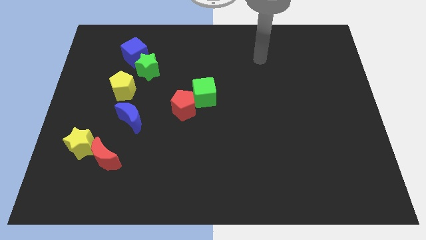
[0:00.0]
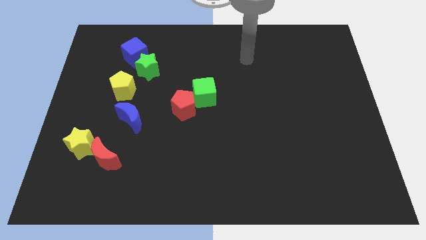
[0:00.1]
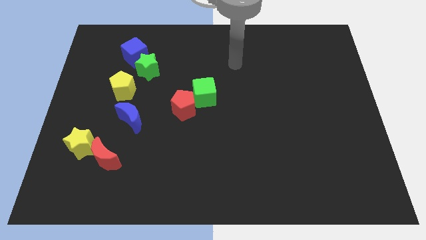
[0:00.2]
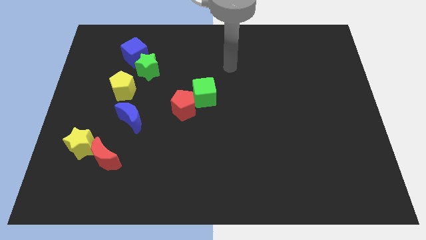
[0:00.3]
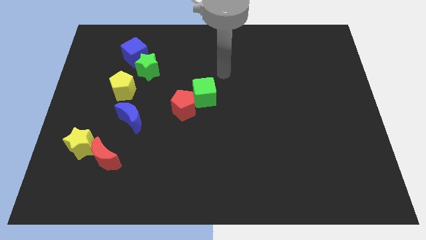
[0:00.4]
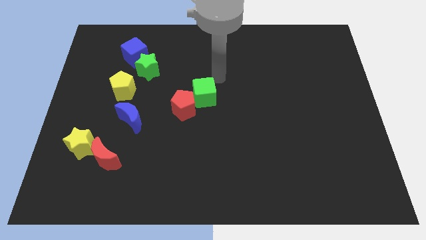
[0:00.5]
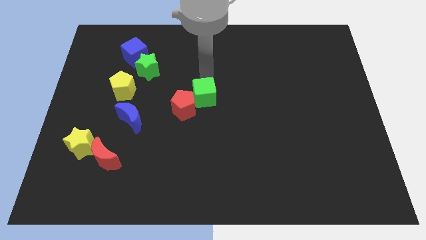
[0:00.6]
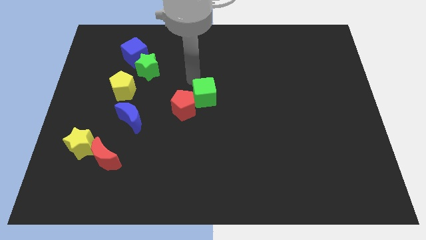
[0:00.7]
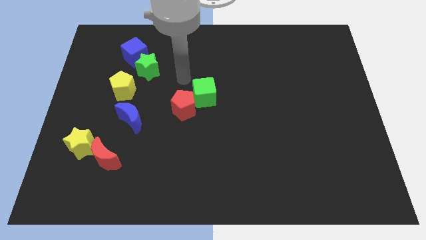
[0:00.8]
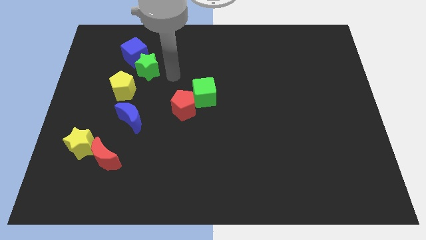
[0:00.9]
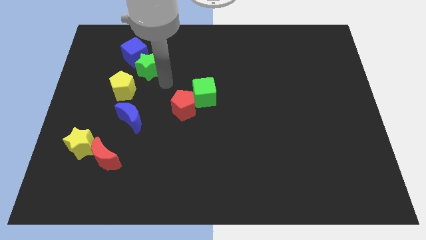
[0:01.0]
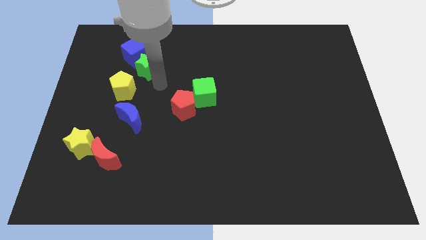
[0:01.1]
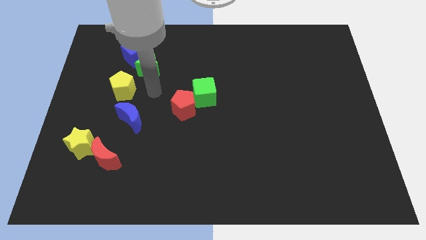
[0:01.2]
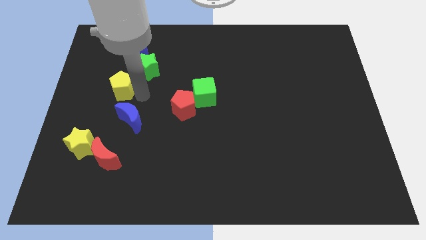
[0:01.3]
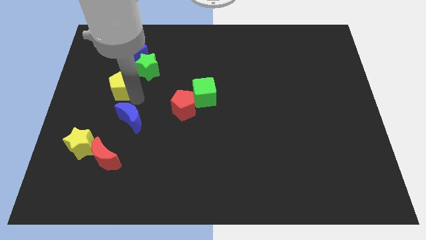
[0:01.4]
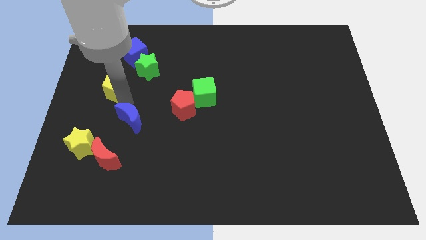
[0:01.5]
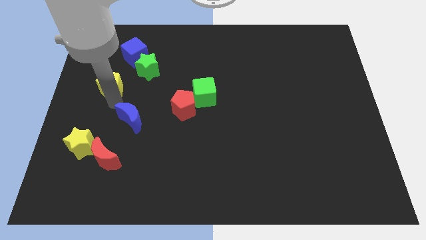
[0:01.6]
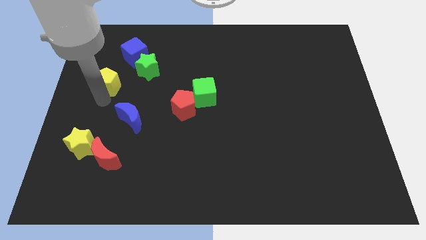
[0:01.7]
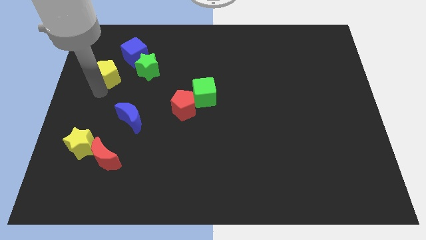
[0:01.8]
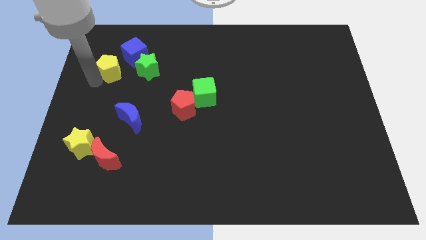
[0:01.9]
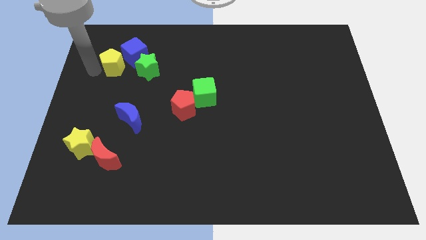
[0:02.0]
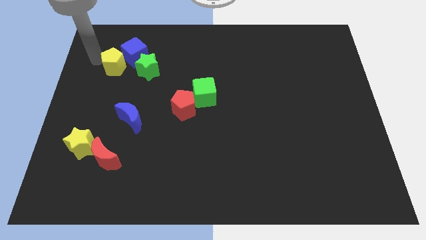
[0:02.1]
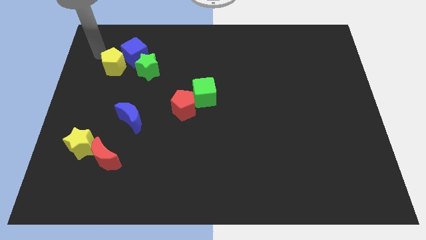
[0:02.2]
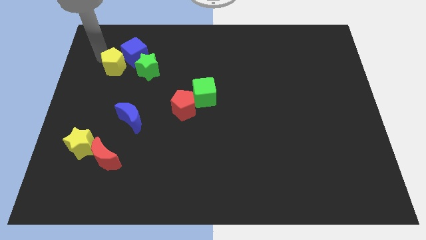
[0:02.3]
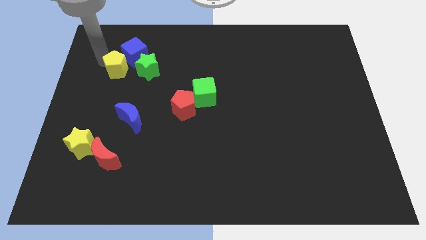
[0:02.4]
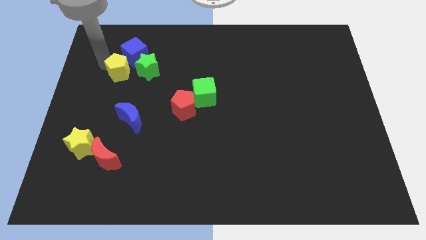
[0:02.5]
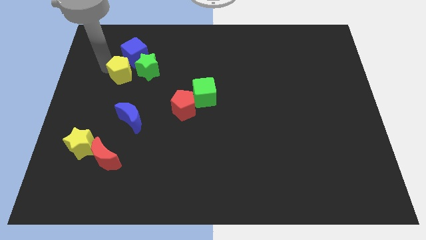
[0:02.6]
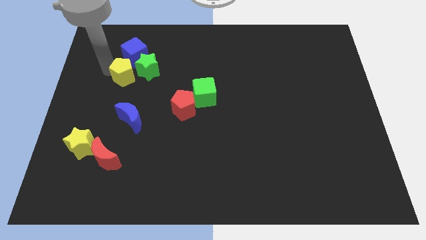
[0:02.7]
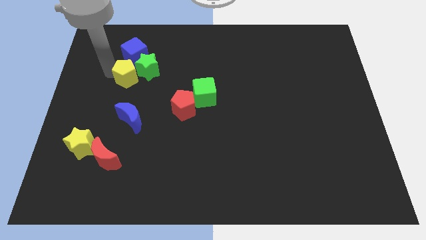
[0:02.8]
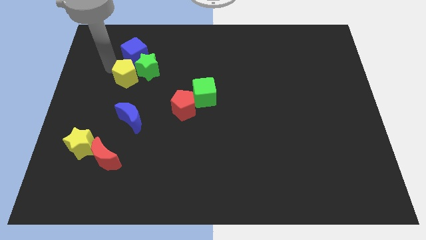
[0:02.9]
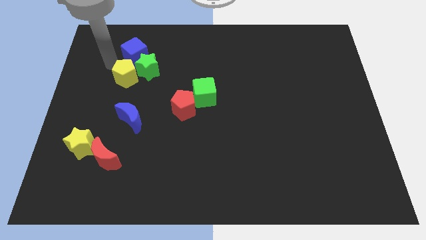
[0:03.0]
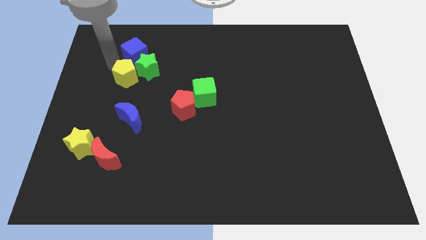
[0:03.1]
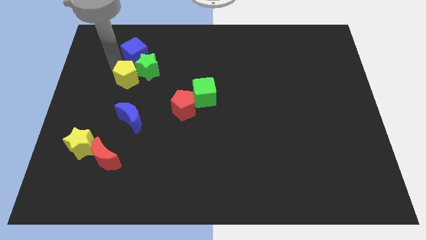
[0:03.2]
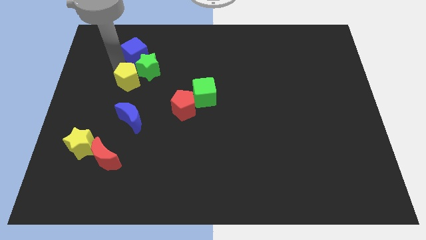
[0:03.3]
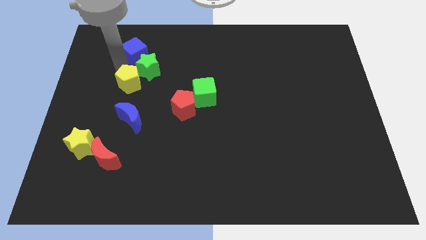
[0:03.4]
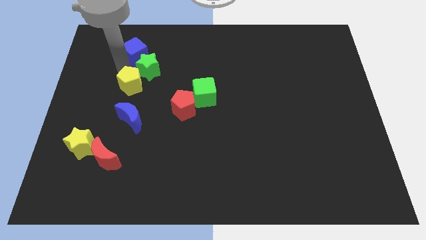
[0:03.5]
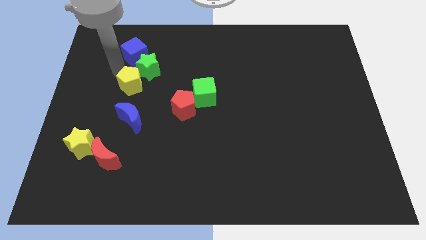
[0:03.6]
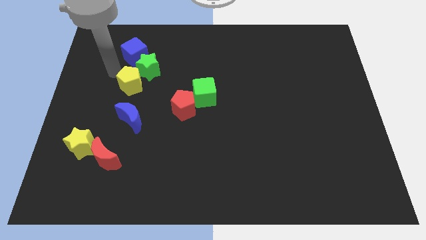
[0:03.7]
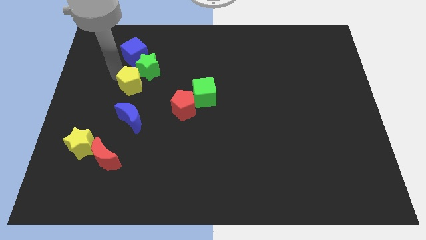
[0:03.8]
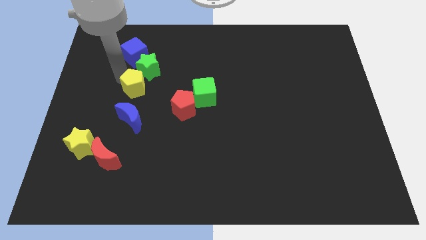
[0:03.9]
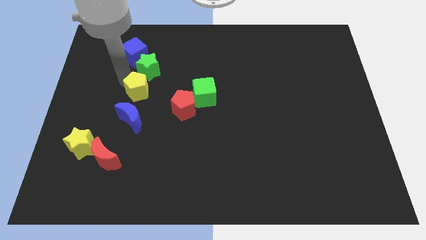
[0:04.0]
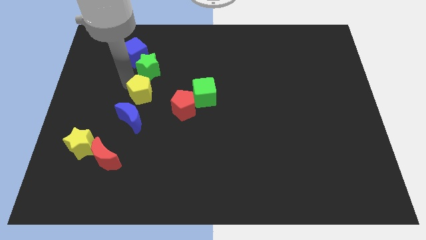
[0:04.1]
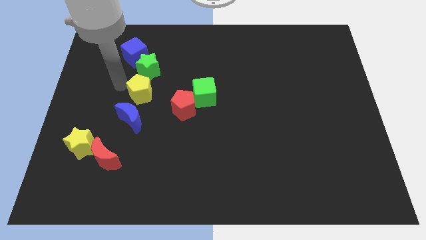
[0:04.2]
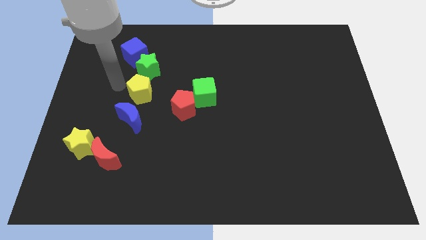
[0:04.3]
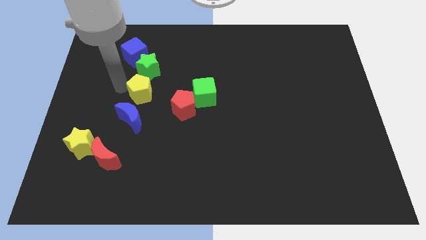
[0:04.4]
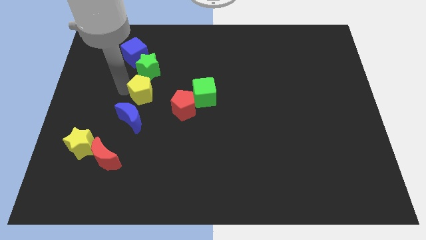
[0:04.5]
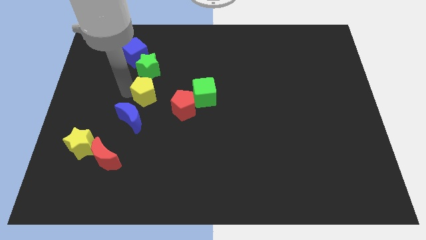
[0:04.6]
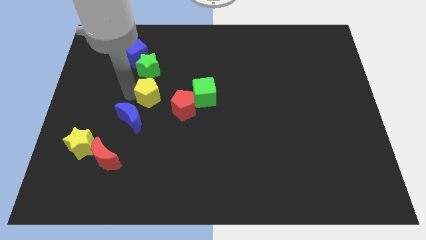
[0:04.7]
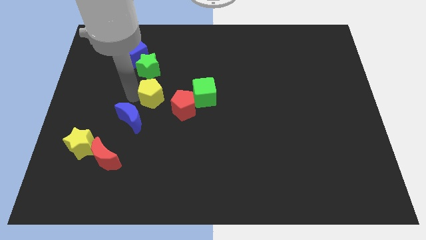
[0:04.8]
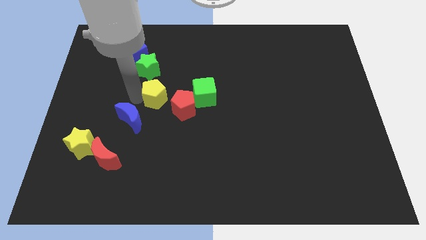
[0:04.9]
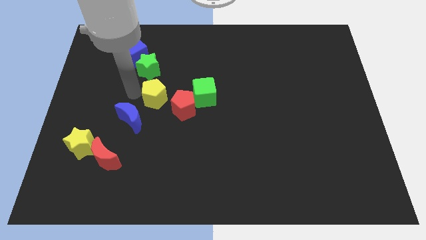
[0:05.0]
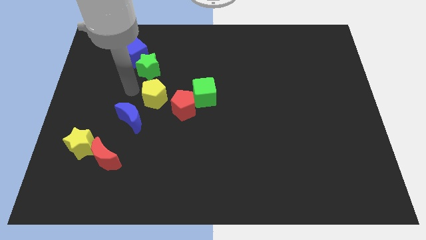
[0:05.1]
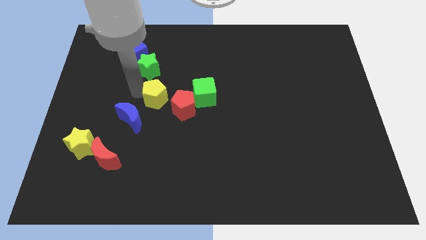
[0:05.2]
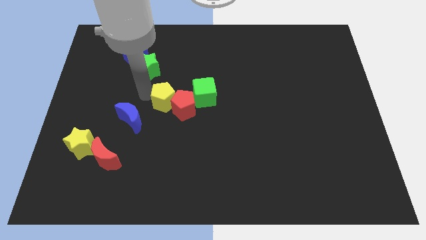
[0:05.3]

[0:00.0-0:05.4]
slide the yellow pentagon close to the red pentagon

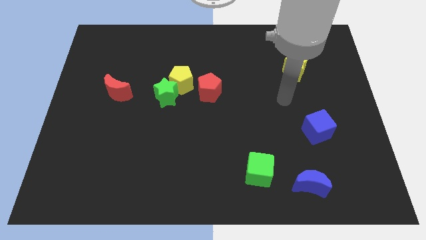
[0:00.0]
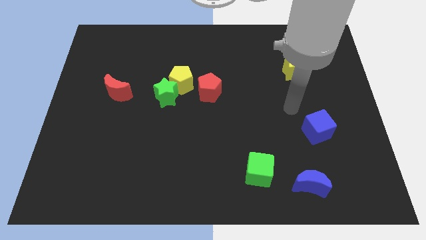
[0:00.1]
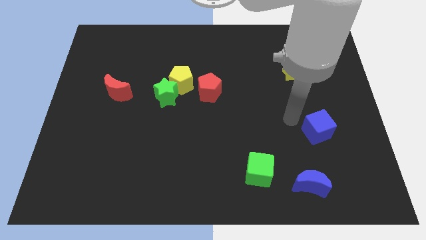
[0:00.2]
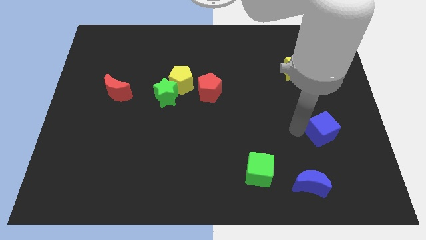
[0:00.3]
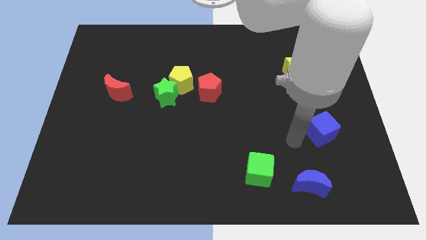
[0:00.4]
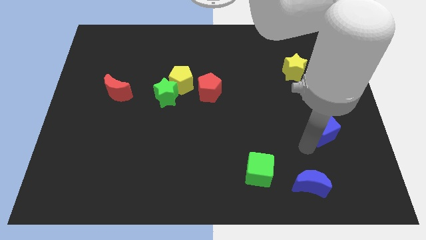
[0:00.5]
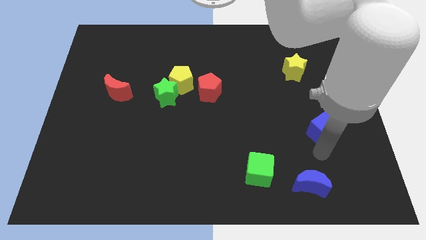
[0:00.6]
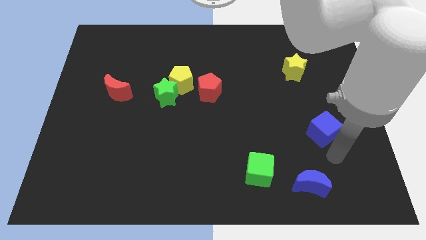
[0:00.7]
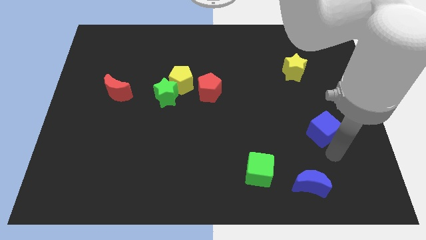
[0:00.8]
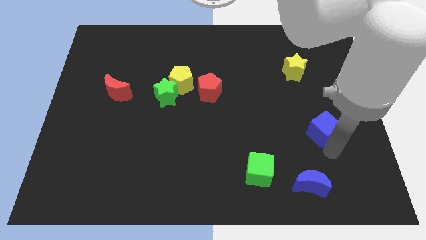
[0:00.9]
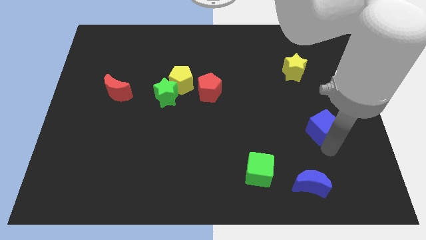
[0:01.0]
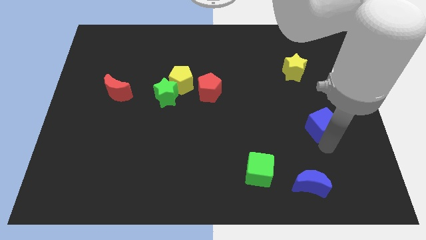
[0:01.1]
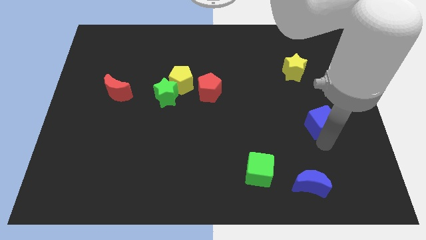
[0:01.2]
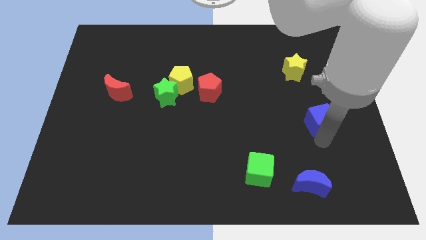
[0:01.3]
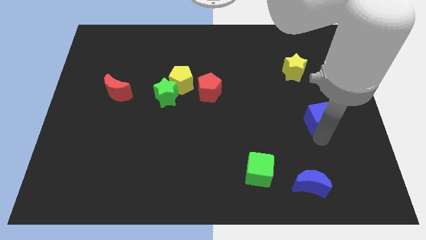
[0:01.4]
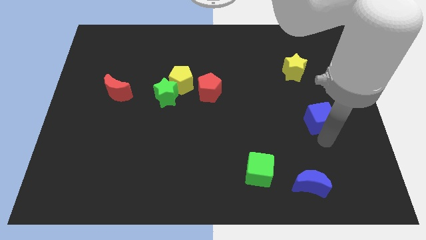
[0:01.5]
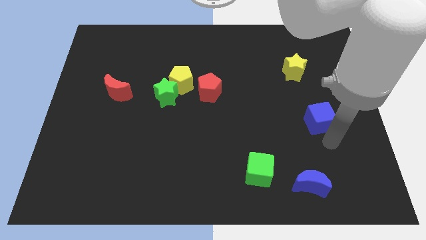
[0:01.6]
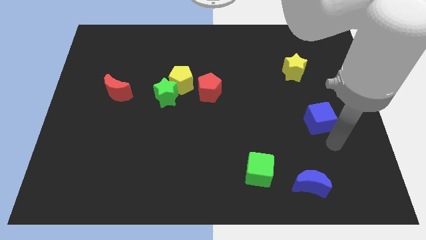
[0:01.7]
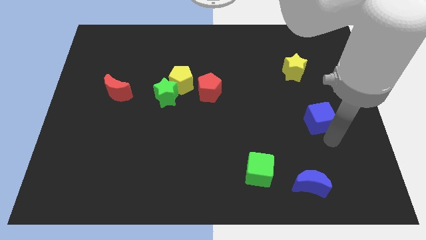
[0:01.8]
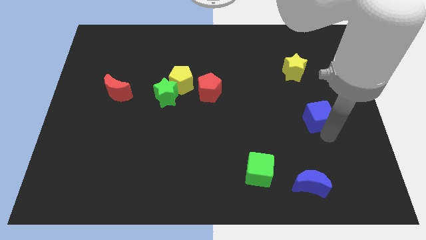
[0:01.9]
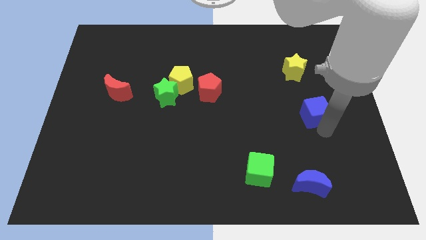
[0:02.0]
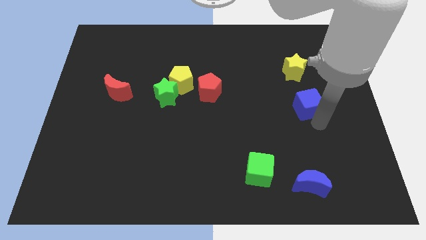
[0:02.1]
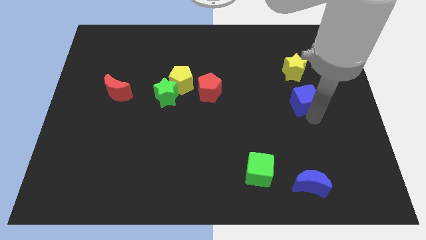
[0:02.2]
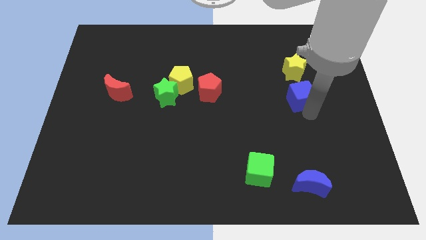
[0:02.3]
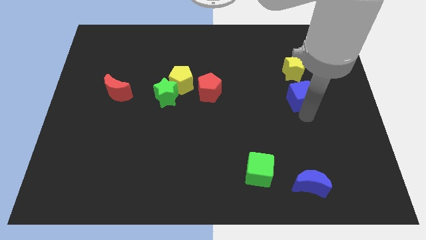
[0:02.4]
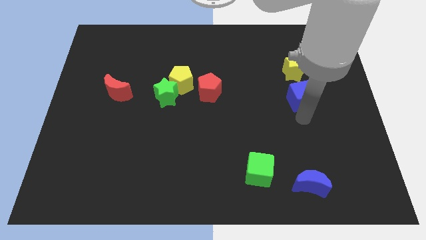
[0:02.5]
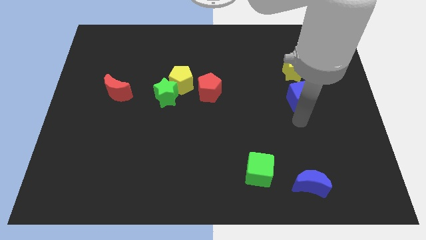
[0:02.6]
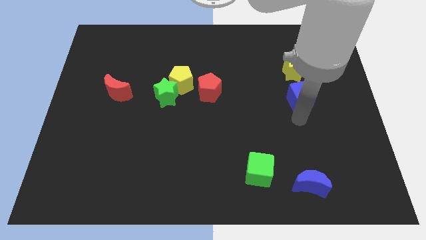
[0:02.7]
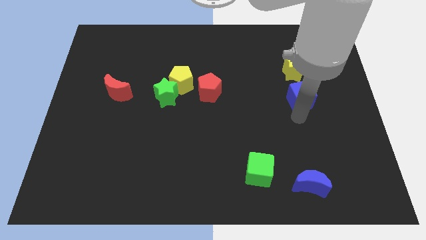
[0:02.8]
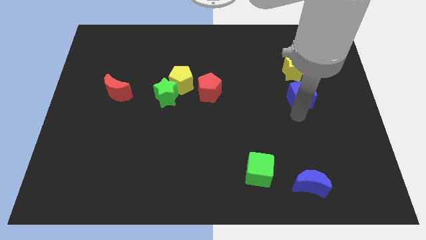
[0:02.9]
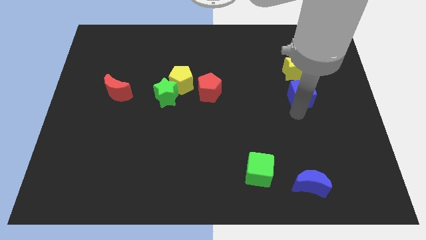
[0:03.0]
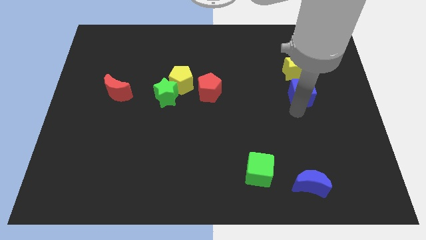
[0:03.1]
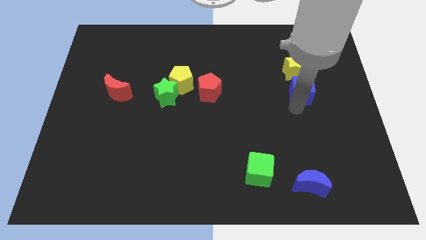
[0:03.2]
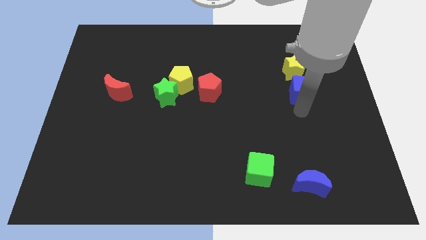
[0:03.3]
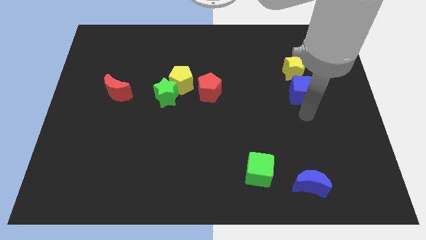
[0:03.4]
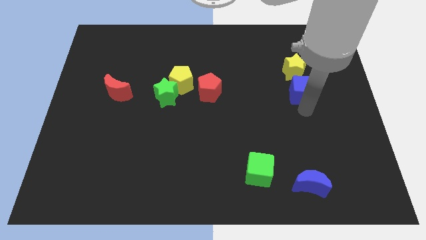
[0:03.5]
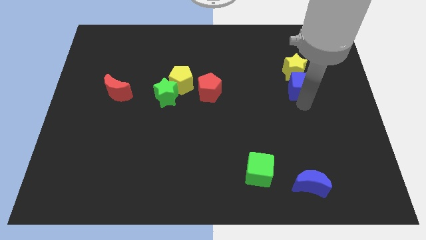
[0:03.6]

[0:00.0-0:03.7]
move the blue cube next to the yellow star
